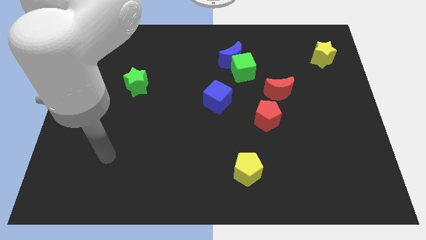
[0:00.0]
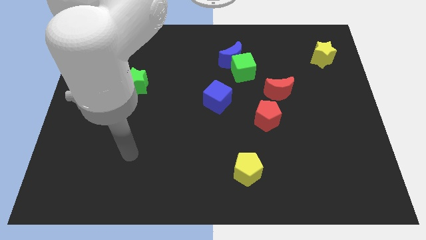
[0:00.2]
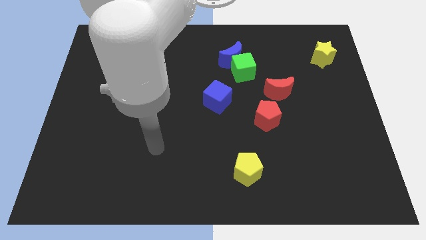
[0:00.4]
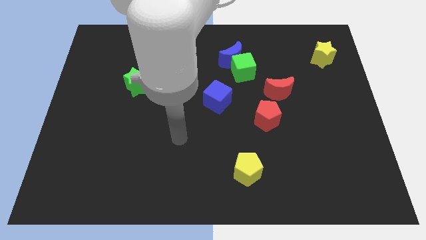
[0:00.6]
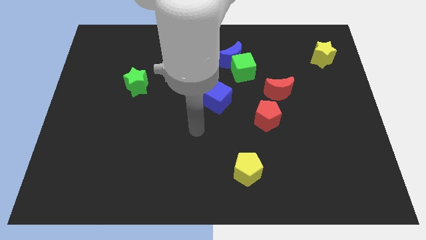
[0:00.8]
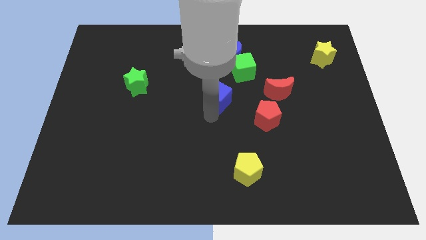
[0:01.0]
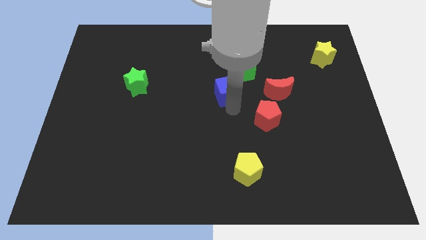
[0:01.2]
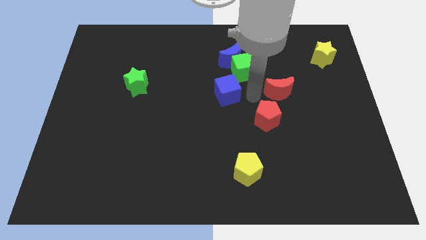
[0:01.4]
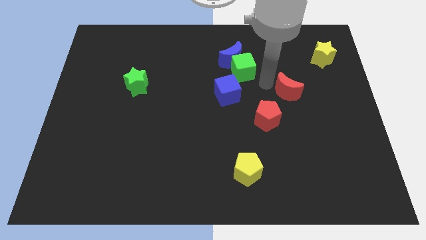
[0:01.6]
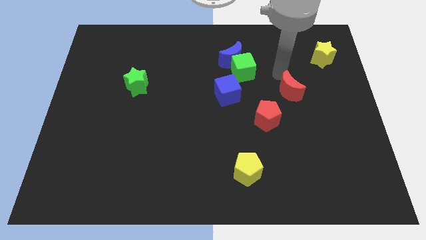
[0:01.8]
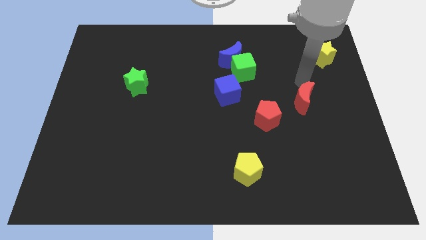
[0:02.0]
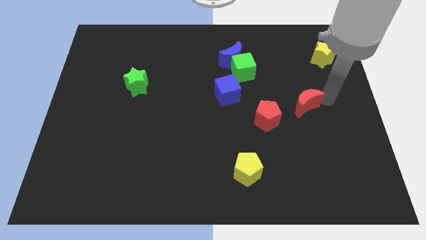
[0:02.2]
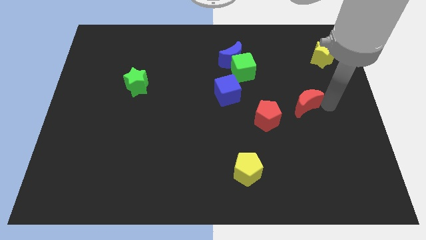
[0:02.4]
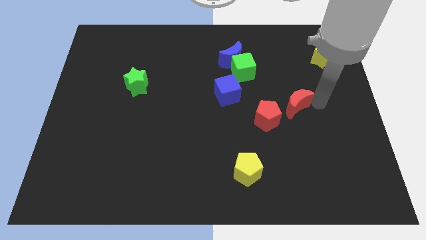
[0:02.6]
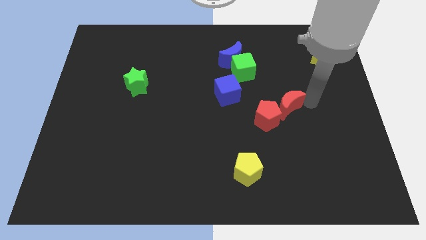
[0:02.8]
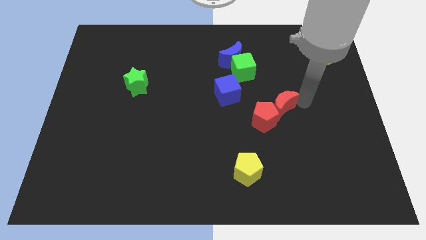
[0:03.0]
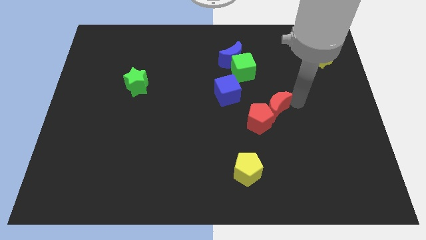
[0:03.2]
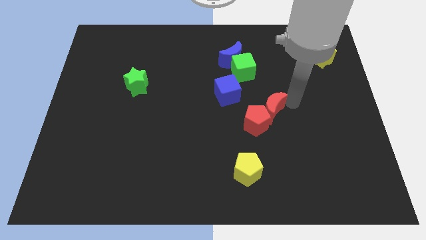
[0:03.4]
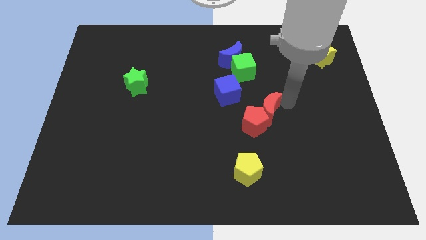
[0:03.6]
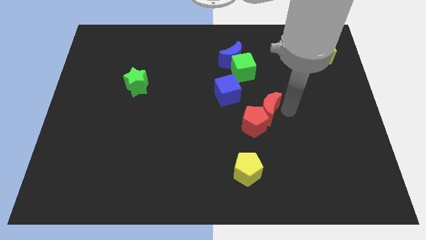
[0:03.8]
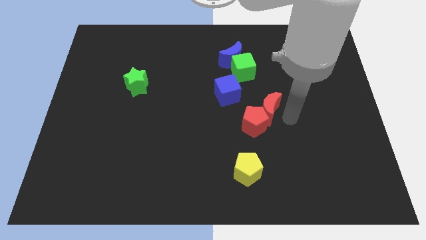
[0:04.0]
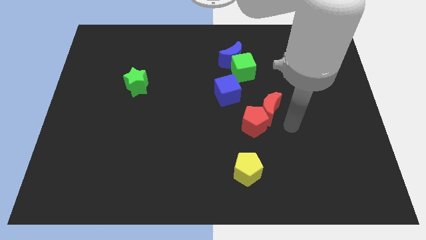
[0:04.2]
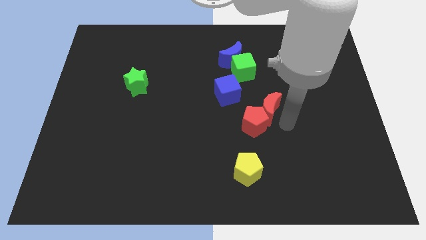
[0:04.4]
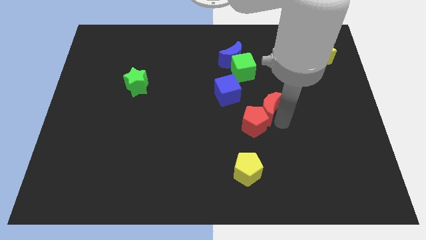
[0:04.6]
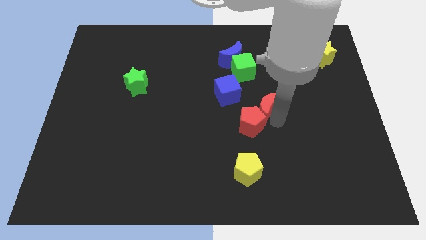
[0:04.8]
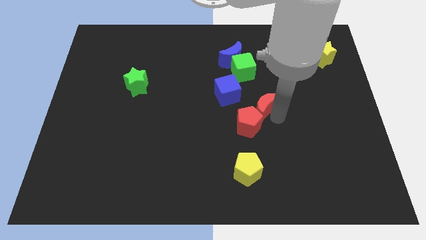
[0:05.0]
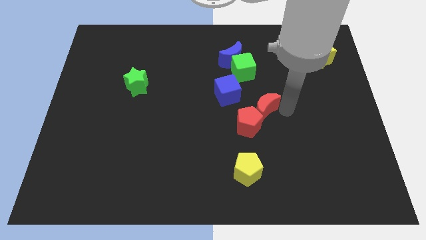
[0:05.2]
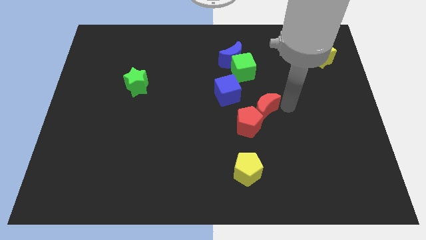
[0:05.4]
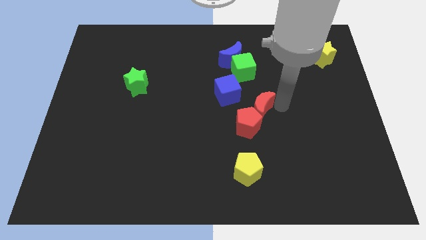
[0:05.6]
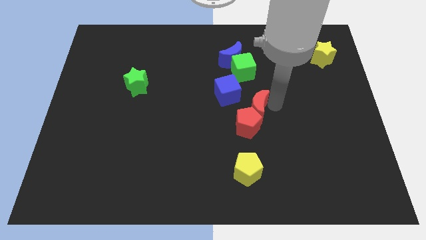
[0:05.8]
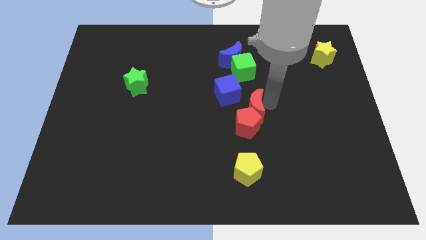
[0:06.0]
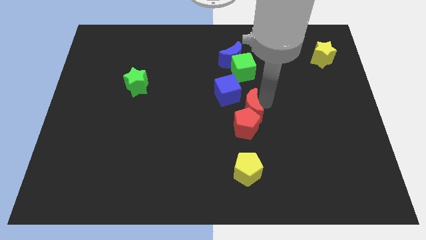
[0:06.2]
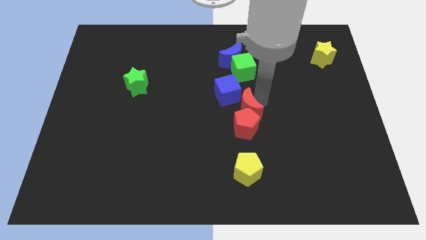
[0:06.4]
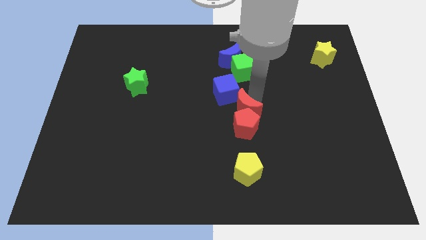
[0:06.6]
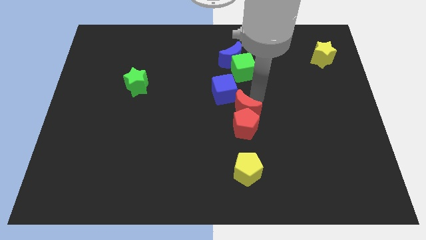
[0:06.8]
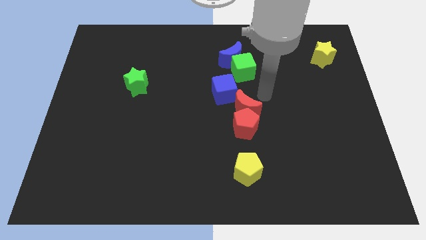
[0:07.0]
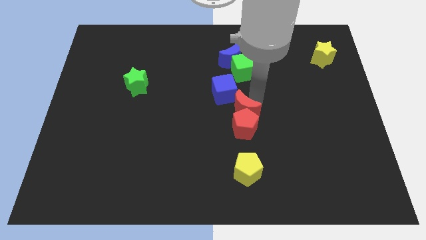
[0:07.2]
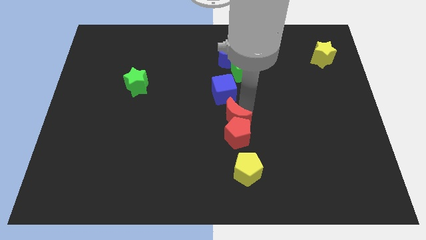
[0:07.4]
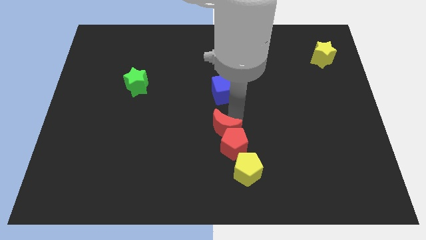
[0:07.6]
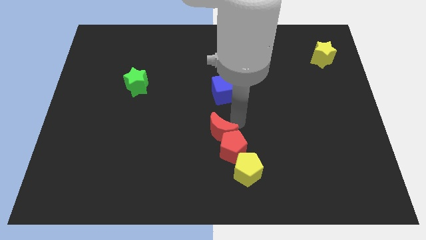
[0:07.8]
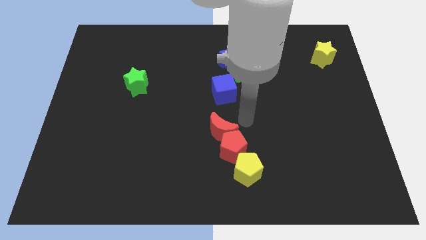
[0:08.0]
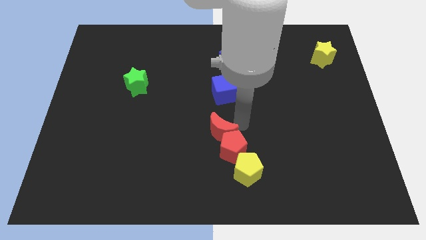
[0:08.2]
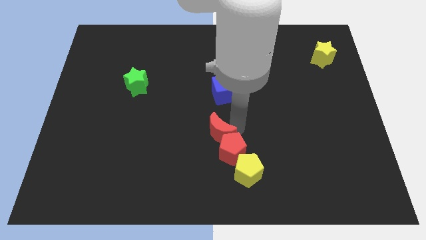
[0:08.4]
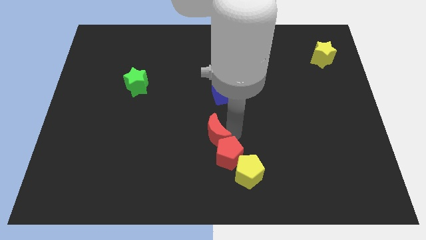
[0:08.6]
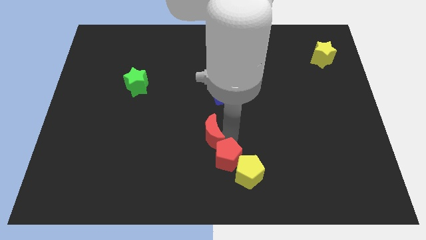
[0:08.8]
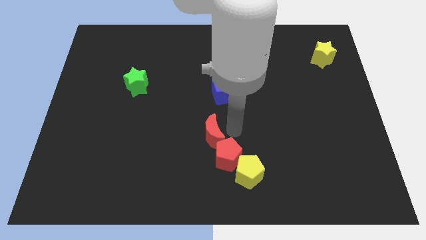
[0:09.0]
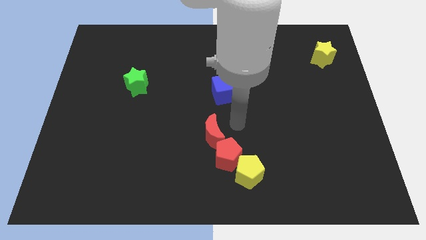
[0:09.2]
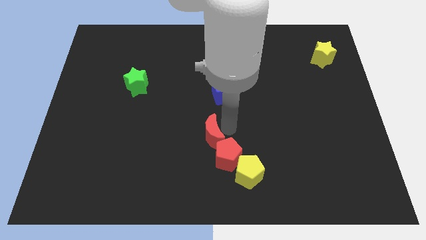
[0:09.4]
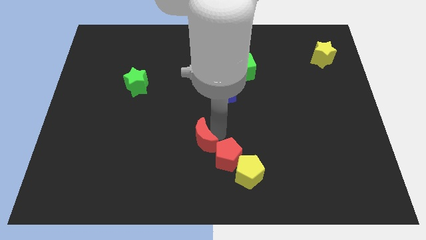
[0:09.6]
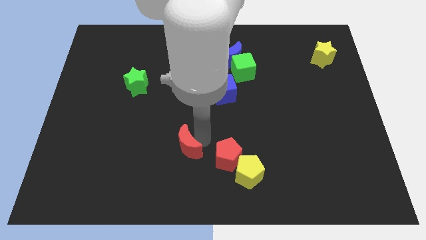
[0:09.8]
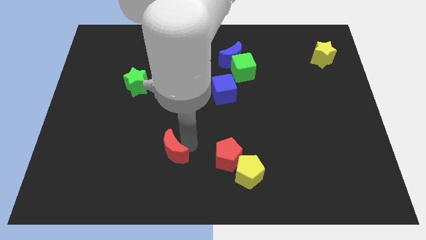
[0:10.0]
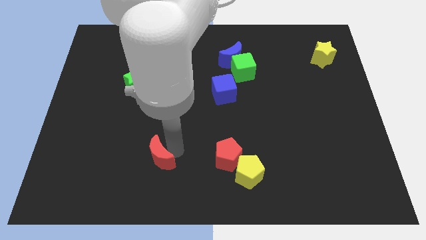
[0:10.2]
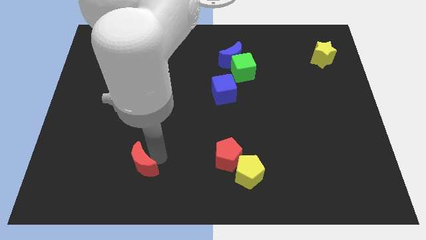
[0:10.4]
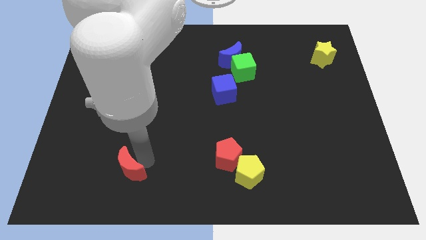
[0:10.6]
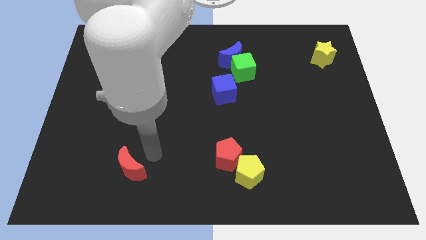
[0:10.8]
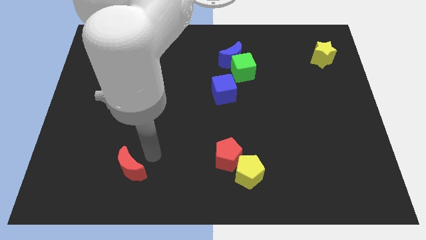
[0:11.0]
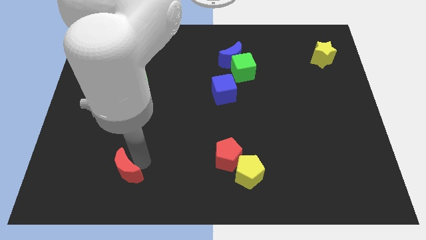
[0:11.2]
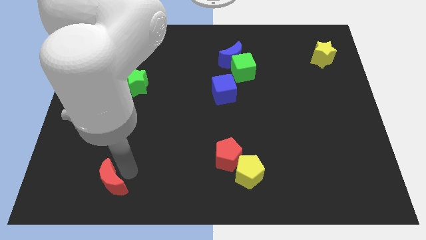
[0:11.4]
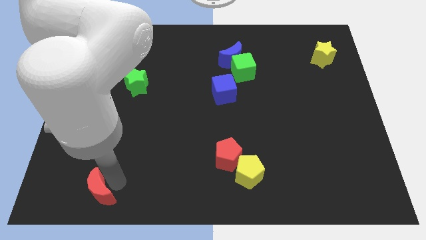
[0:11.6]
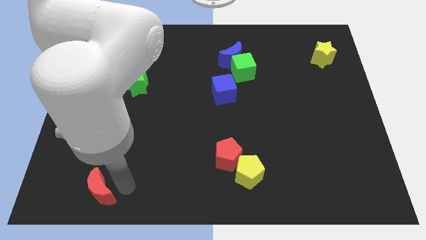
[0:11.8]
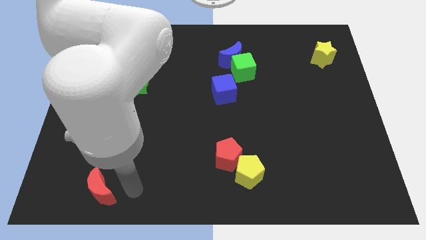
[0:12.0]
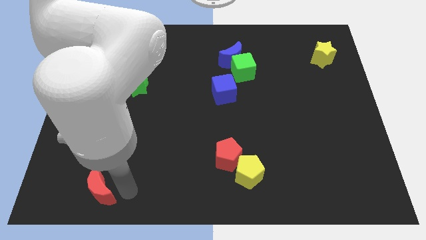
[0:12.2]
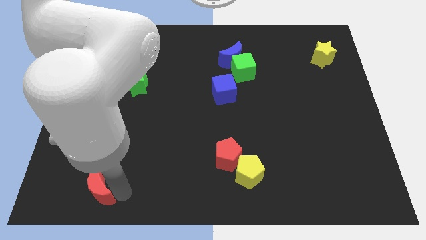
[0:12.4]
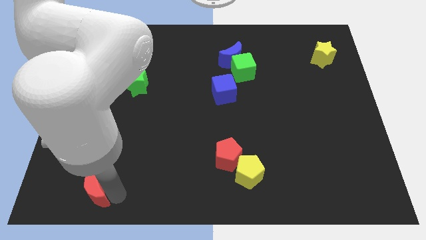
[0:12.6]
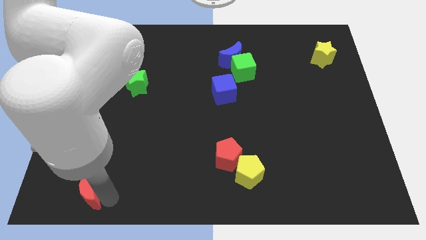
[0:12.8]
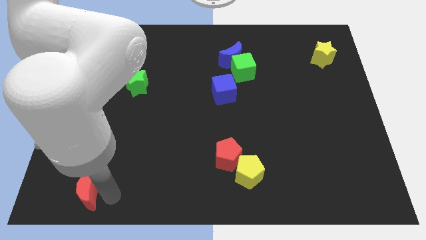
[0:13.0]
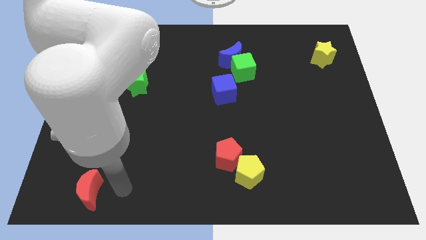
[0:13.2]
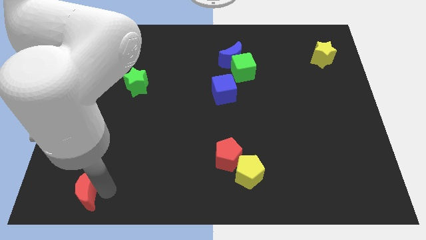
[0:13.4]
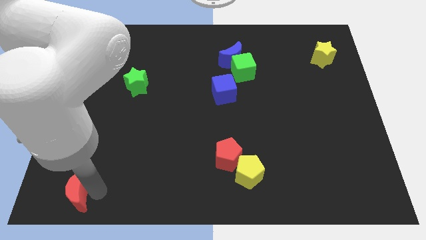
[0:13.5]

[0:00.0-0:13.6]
push the red moon to the lower left corner
